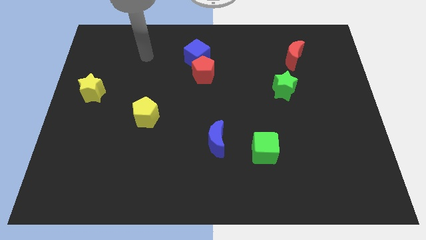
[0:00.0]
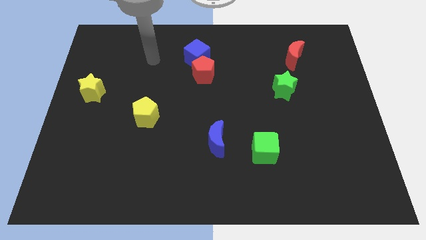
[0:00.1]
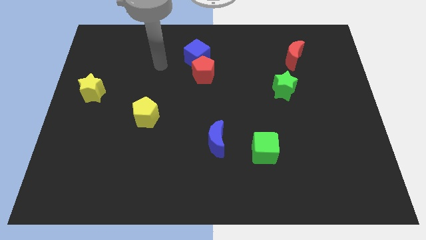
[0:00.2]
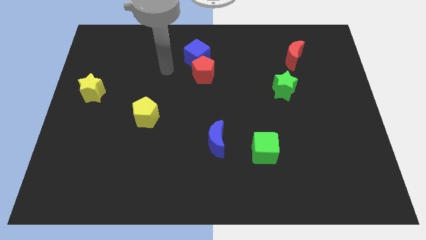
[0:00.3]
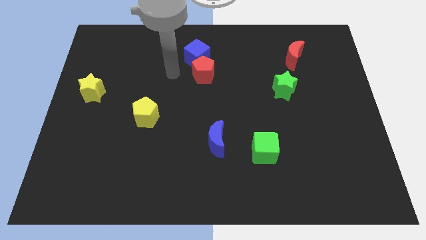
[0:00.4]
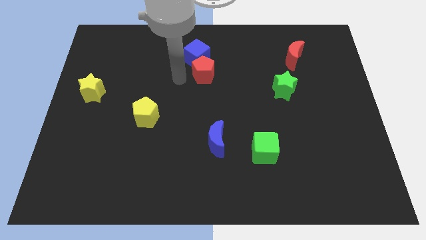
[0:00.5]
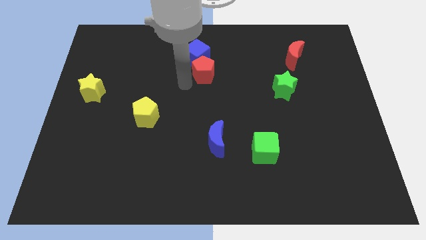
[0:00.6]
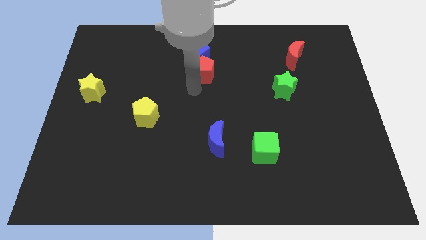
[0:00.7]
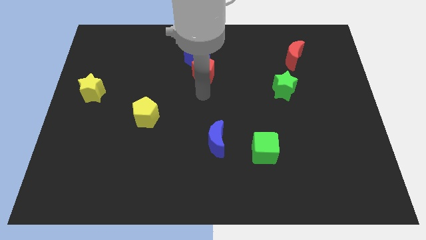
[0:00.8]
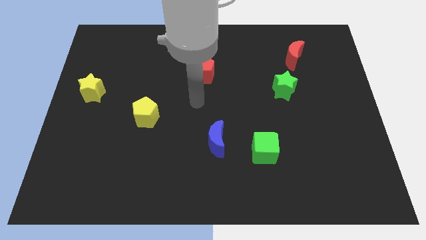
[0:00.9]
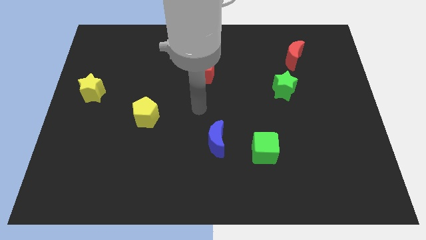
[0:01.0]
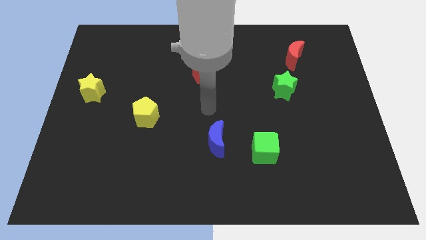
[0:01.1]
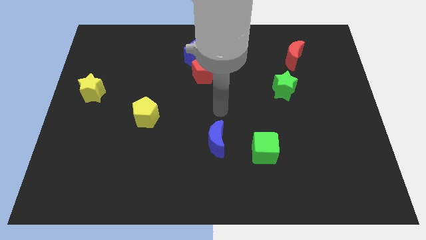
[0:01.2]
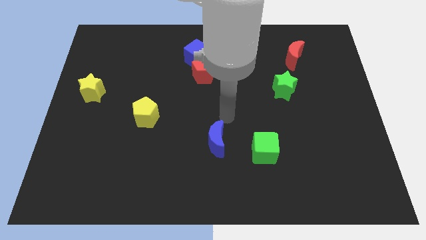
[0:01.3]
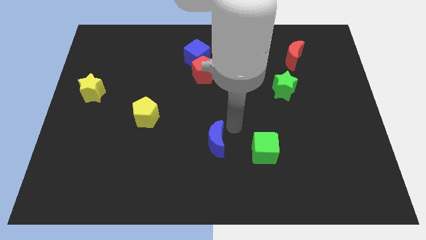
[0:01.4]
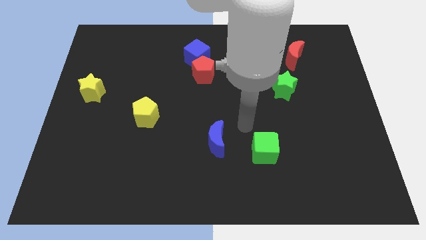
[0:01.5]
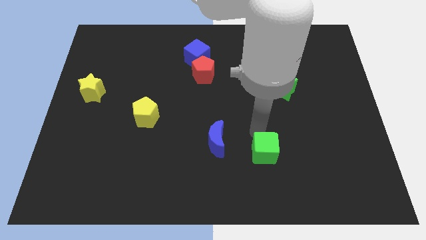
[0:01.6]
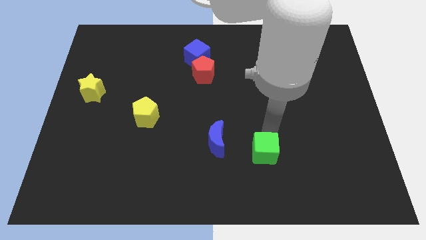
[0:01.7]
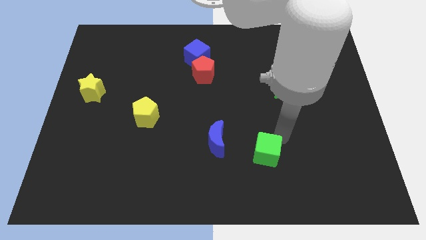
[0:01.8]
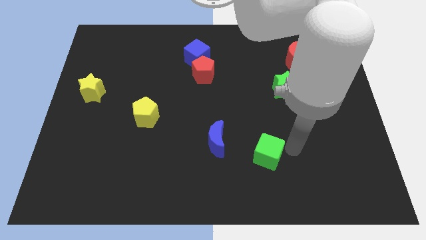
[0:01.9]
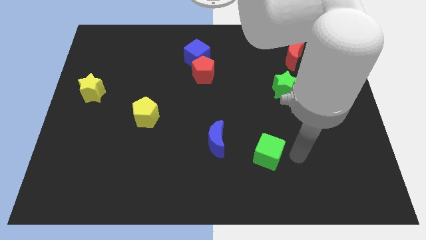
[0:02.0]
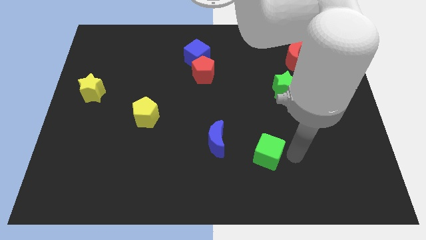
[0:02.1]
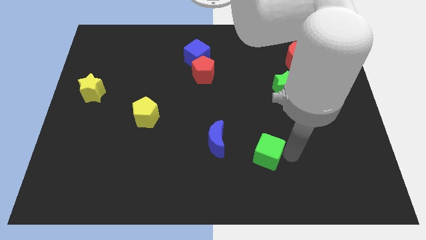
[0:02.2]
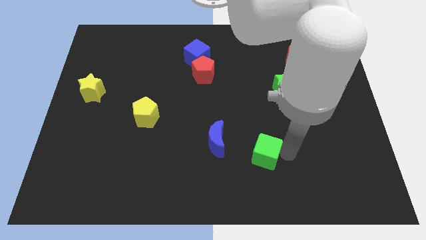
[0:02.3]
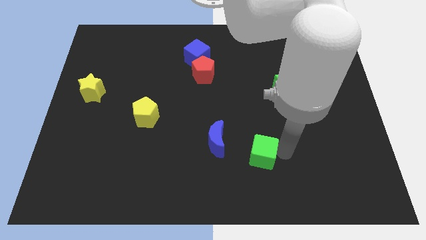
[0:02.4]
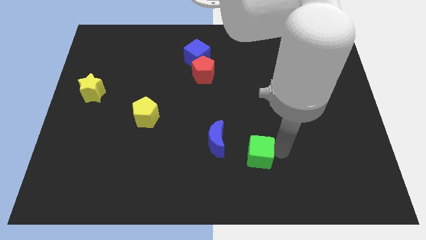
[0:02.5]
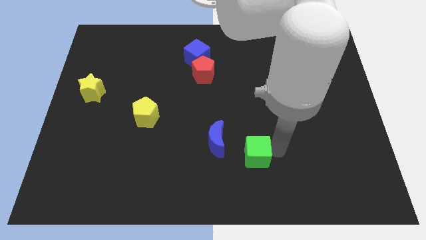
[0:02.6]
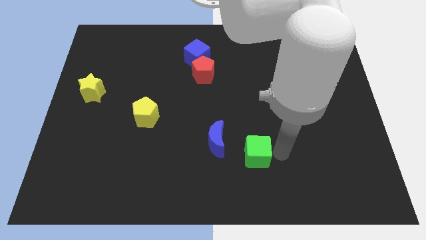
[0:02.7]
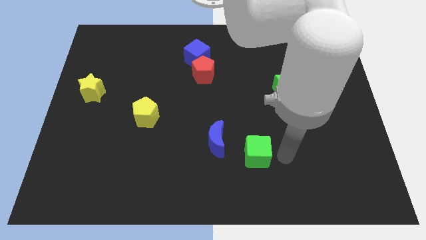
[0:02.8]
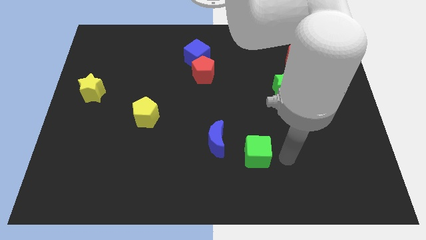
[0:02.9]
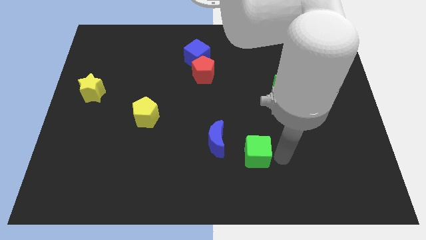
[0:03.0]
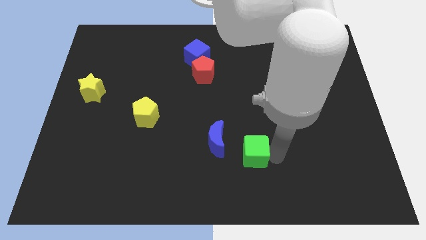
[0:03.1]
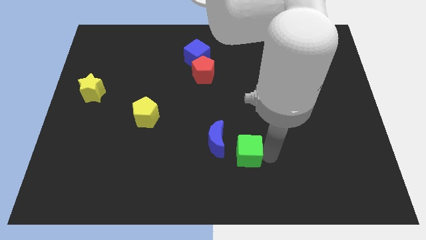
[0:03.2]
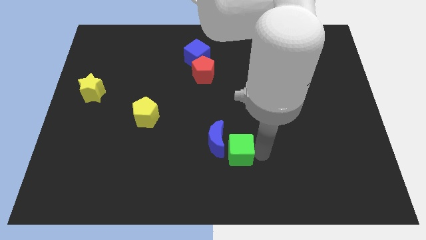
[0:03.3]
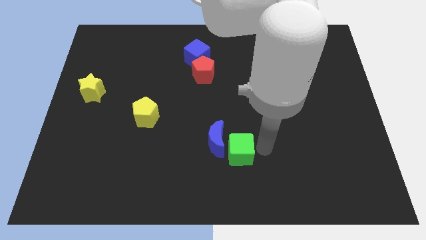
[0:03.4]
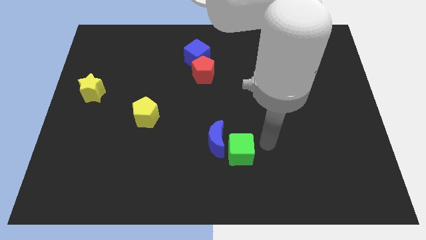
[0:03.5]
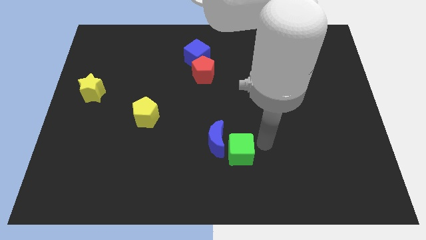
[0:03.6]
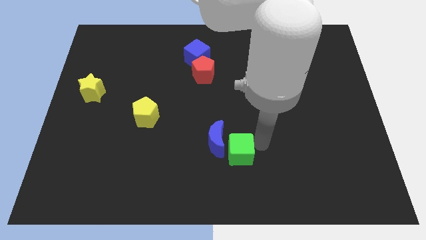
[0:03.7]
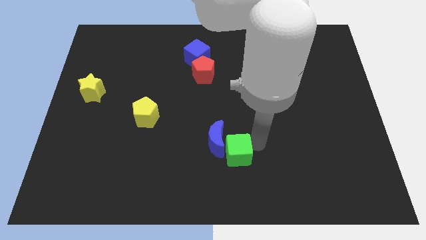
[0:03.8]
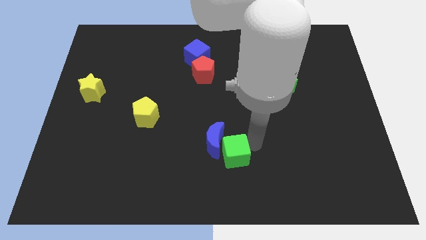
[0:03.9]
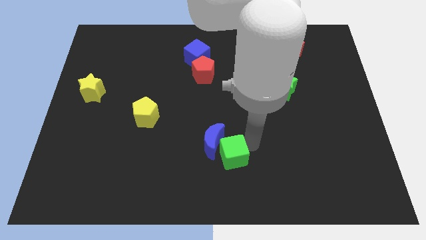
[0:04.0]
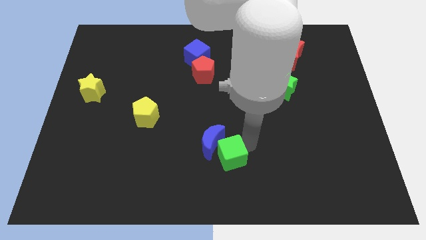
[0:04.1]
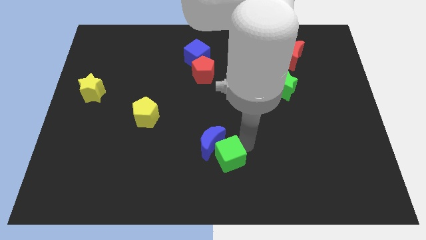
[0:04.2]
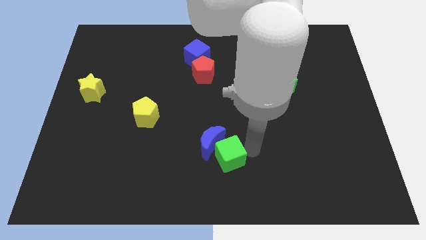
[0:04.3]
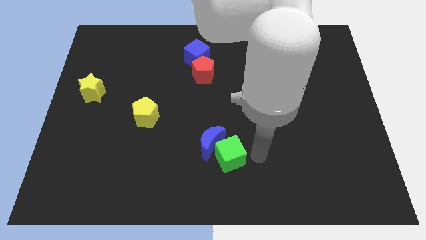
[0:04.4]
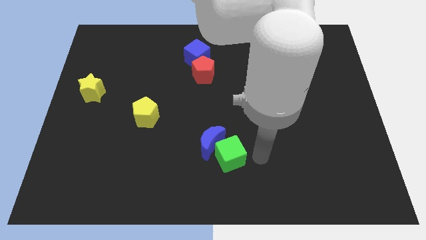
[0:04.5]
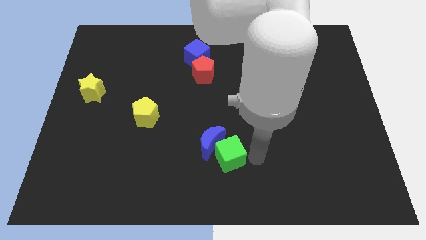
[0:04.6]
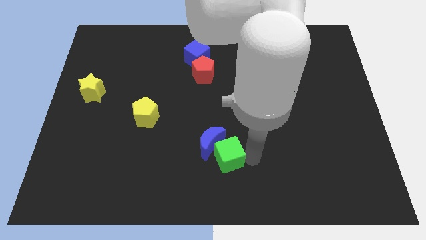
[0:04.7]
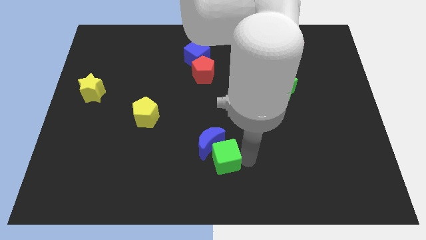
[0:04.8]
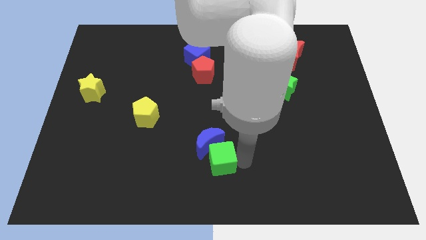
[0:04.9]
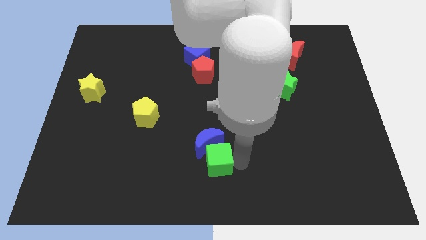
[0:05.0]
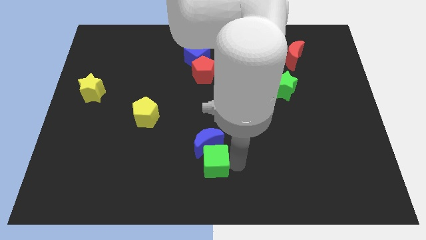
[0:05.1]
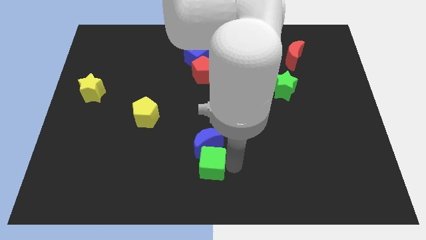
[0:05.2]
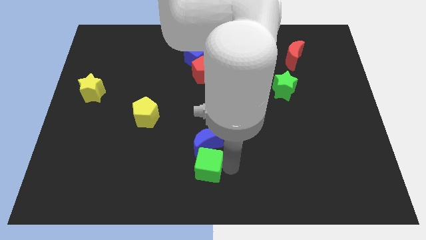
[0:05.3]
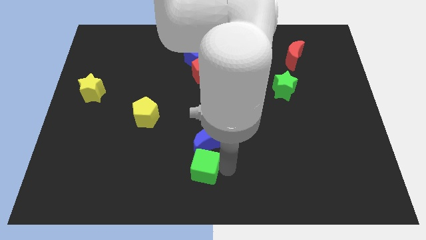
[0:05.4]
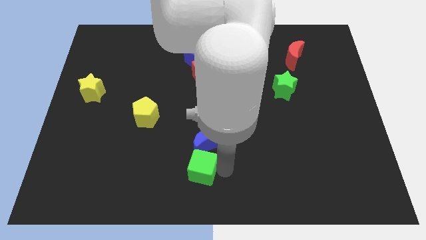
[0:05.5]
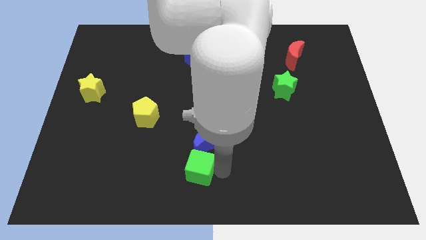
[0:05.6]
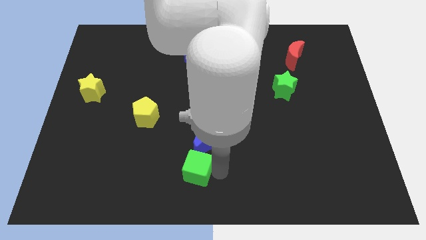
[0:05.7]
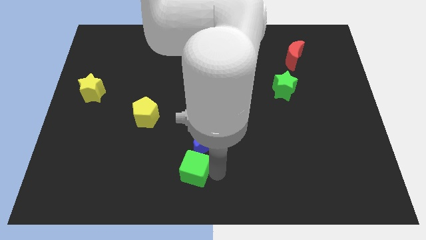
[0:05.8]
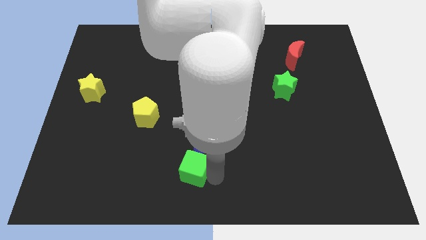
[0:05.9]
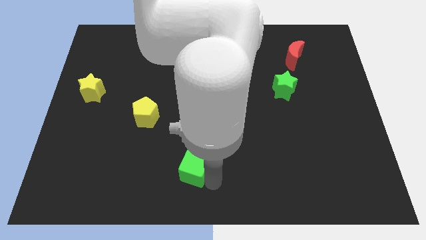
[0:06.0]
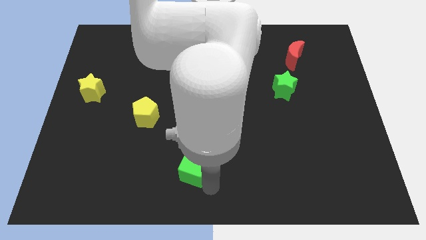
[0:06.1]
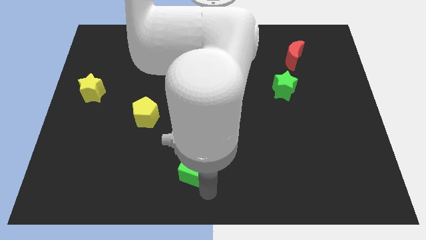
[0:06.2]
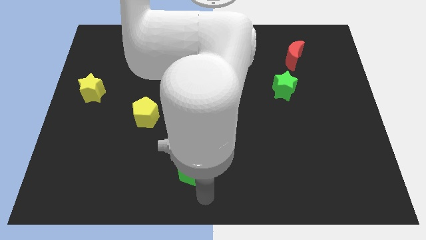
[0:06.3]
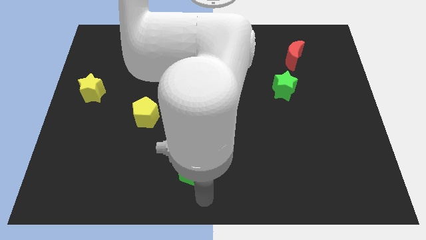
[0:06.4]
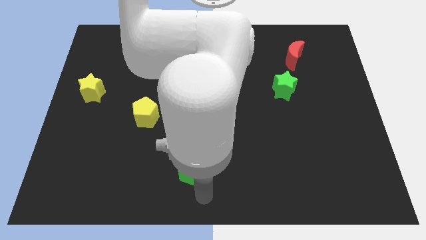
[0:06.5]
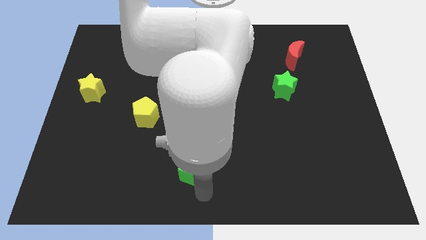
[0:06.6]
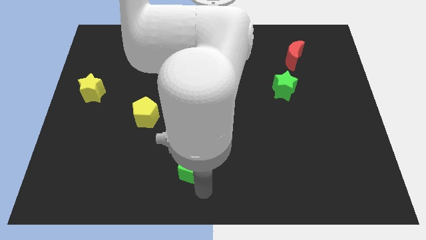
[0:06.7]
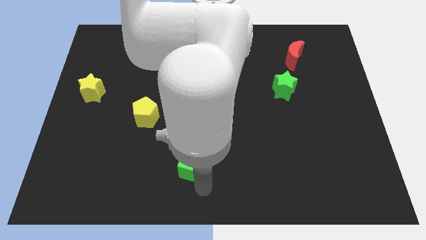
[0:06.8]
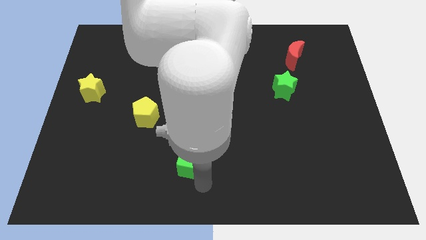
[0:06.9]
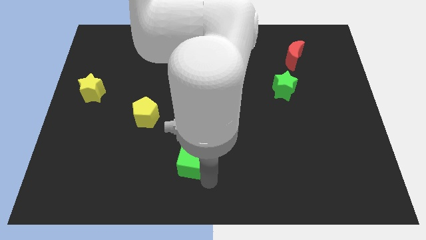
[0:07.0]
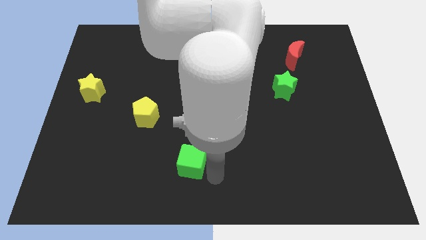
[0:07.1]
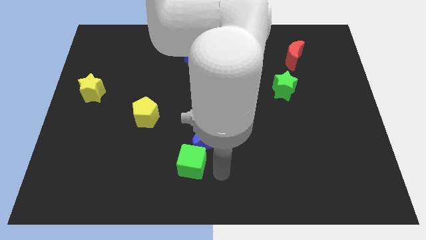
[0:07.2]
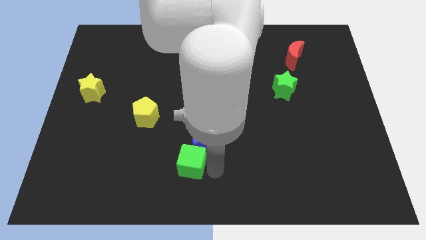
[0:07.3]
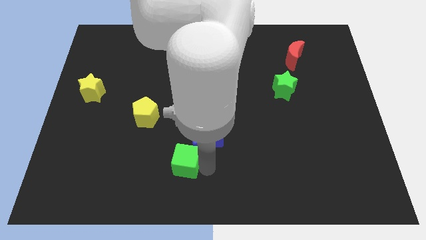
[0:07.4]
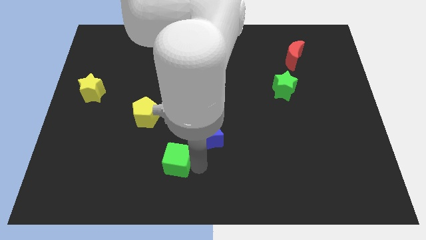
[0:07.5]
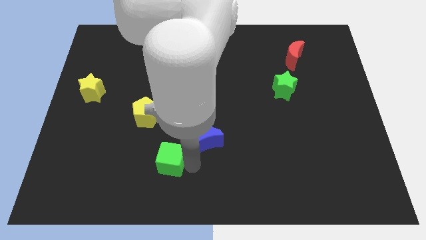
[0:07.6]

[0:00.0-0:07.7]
push the green cube left

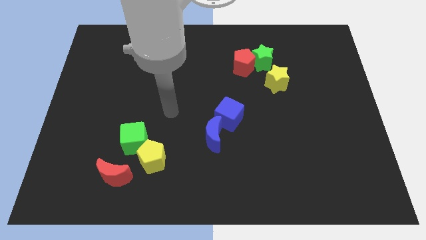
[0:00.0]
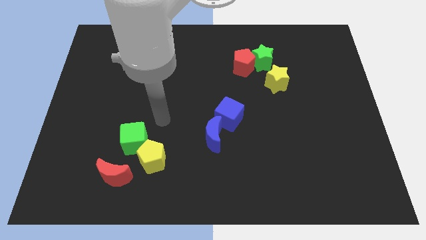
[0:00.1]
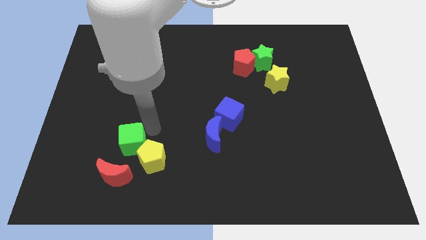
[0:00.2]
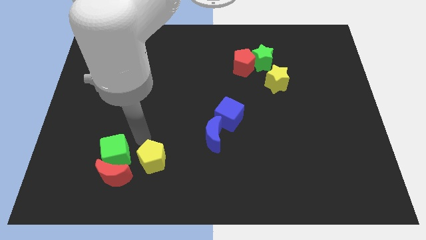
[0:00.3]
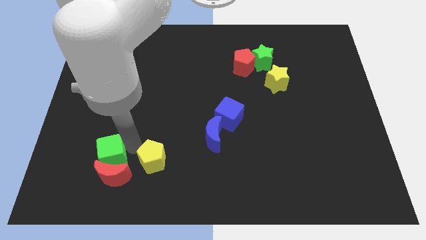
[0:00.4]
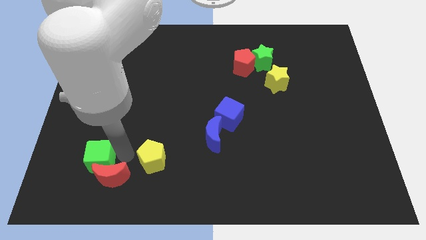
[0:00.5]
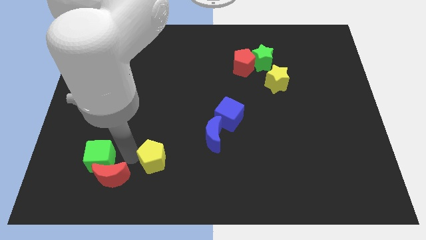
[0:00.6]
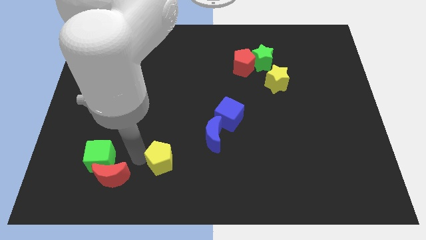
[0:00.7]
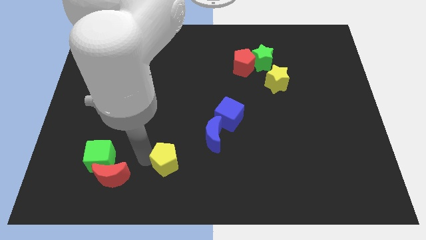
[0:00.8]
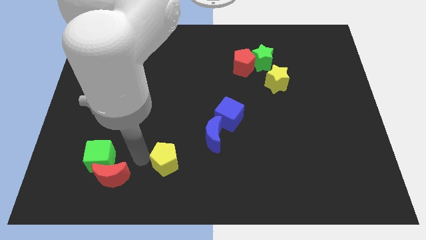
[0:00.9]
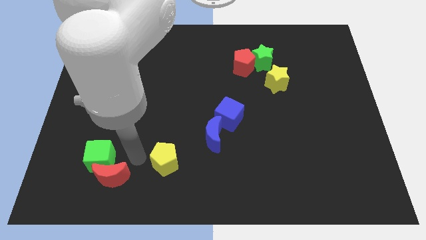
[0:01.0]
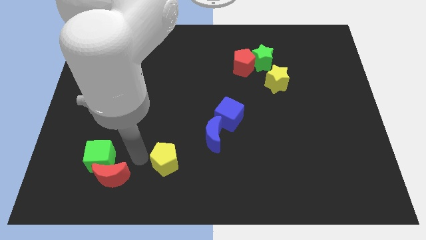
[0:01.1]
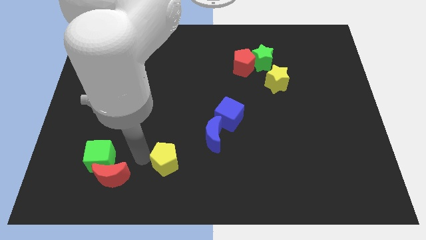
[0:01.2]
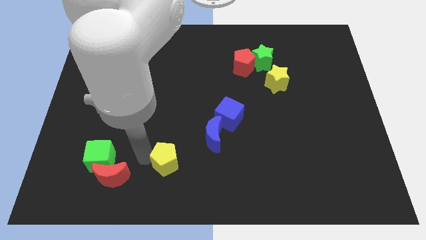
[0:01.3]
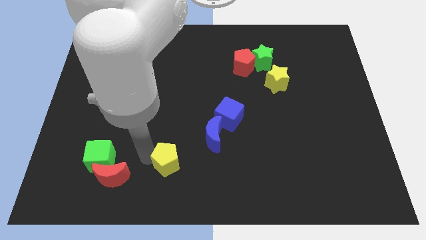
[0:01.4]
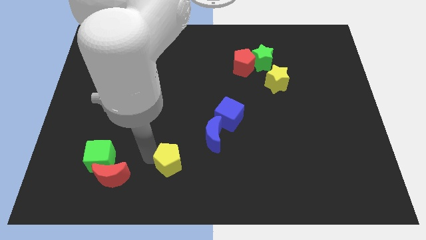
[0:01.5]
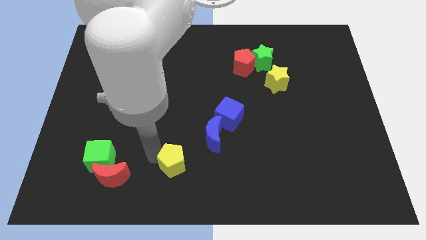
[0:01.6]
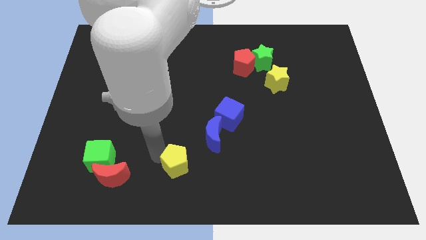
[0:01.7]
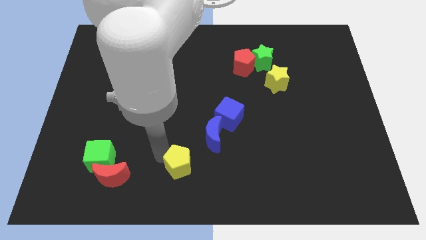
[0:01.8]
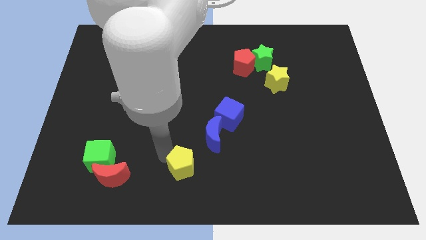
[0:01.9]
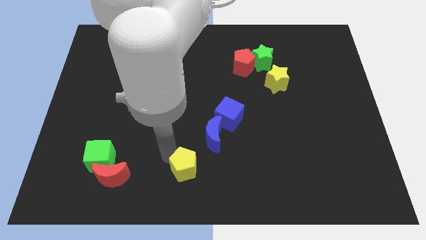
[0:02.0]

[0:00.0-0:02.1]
push the yellow pentagon to the right somewhat
